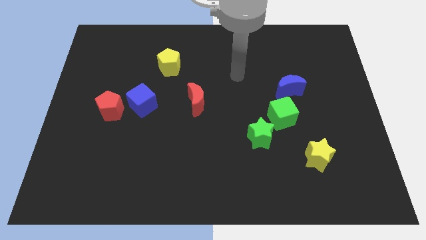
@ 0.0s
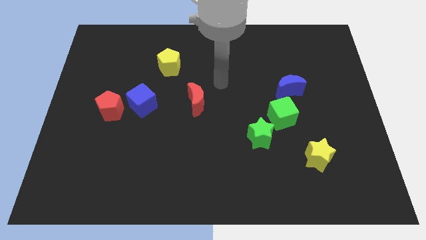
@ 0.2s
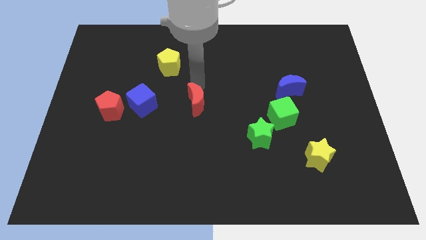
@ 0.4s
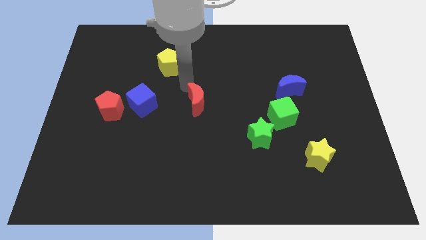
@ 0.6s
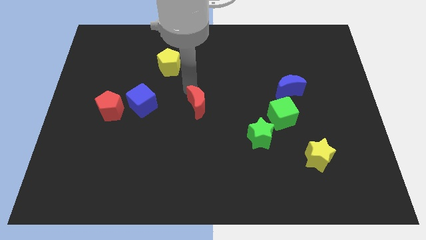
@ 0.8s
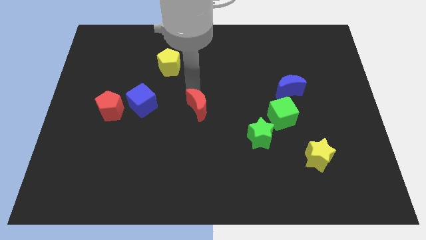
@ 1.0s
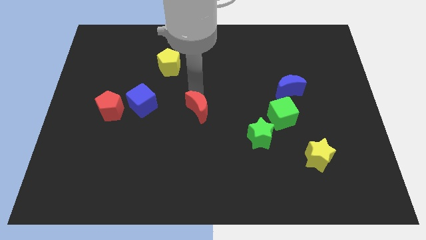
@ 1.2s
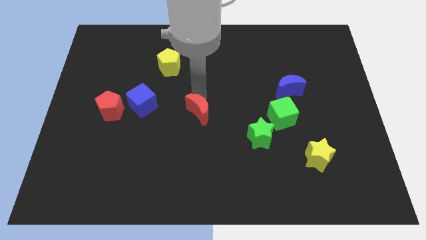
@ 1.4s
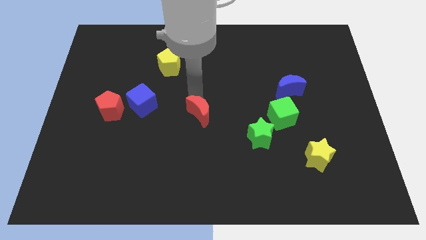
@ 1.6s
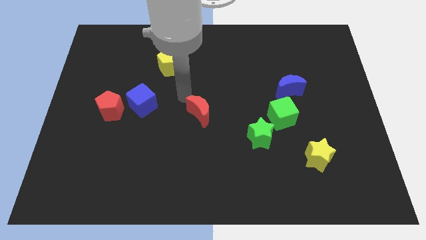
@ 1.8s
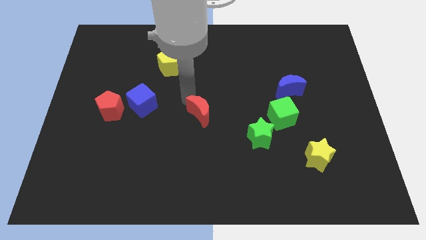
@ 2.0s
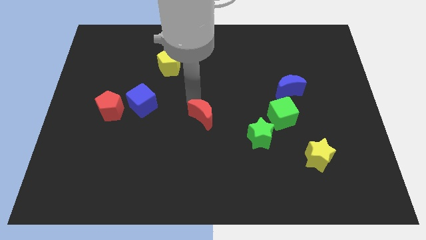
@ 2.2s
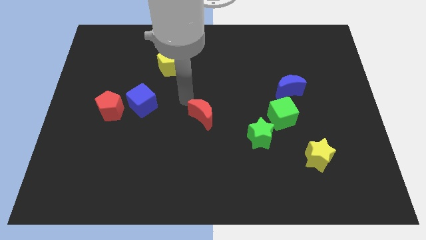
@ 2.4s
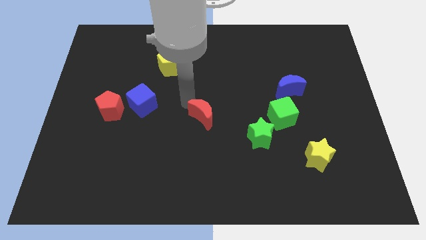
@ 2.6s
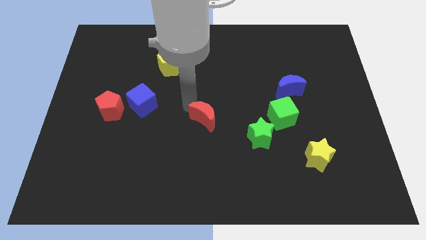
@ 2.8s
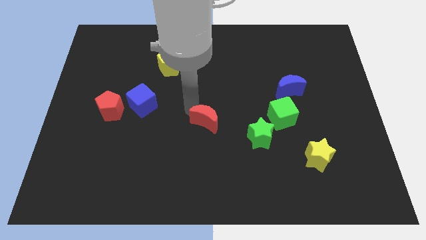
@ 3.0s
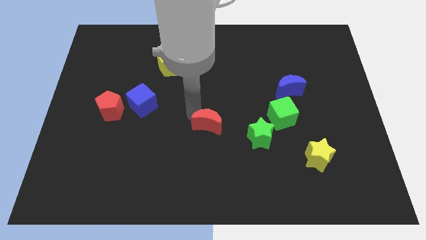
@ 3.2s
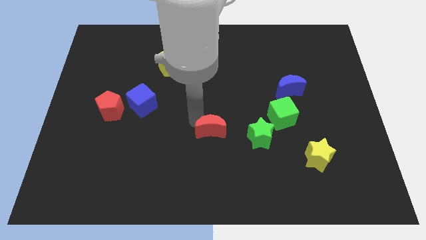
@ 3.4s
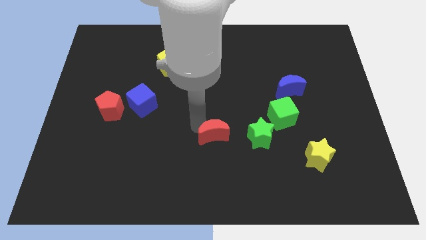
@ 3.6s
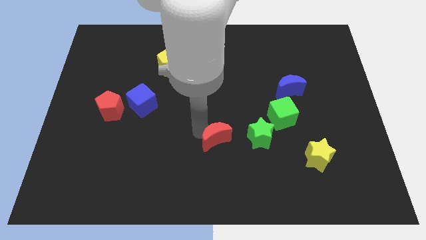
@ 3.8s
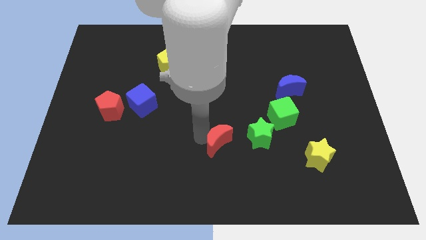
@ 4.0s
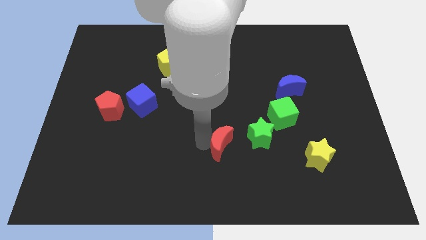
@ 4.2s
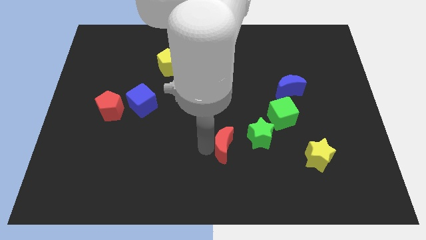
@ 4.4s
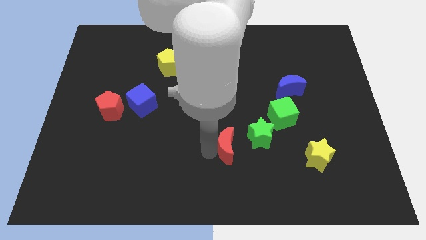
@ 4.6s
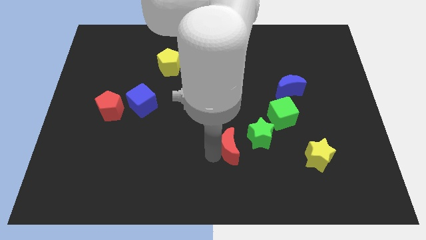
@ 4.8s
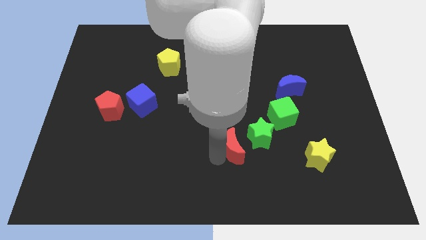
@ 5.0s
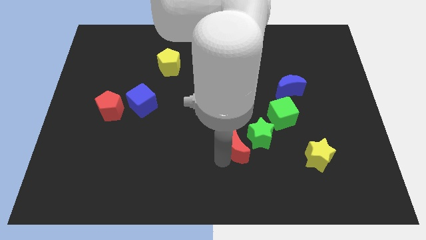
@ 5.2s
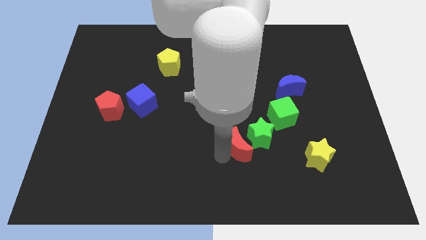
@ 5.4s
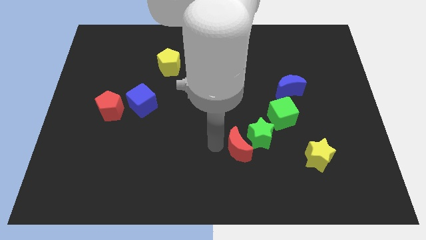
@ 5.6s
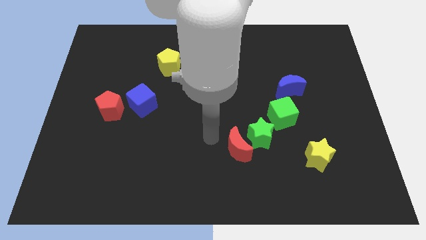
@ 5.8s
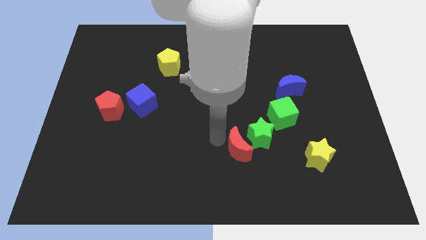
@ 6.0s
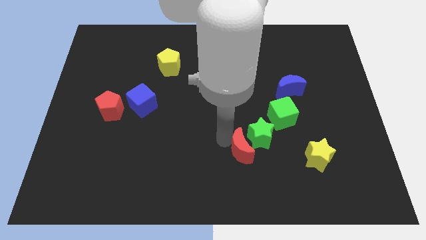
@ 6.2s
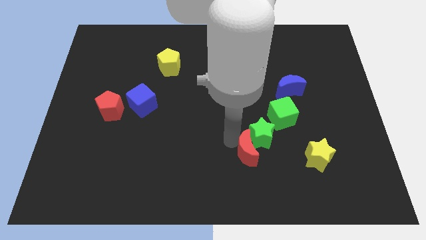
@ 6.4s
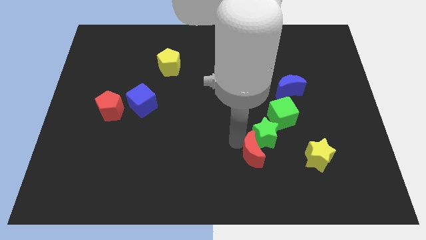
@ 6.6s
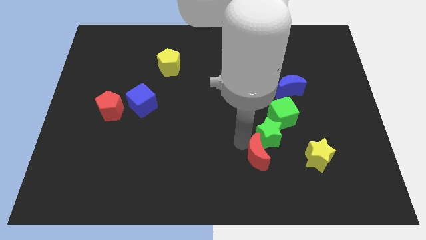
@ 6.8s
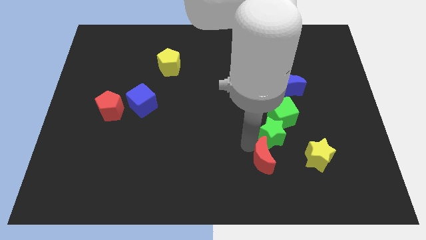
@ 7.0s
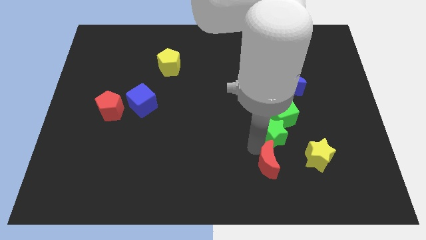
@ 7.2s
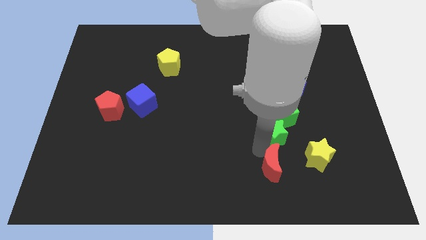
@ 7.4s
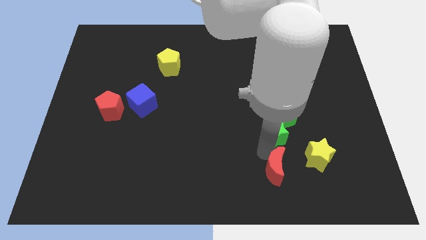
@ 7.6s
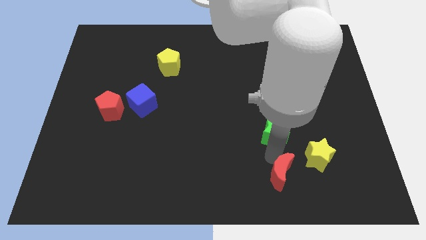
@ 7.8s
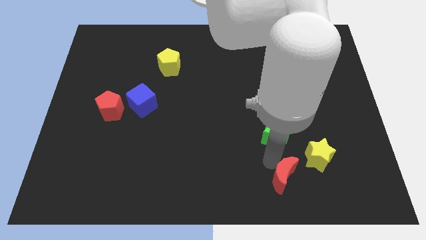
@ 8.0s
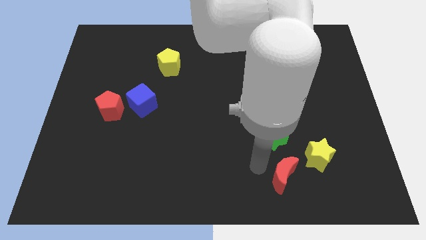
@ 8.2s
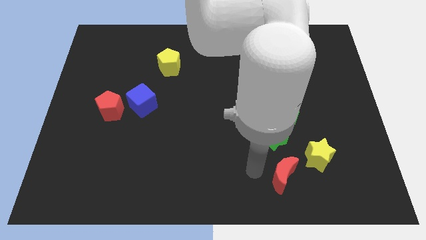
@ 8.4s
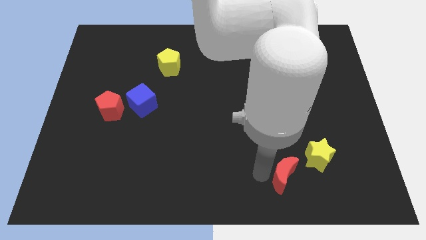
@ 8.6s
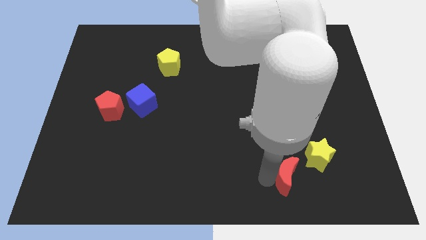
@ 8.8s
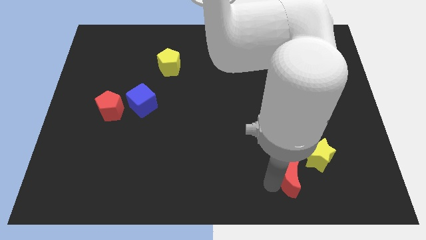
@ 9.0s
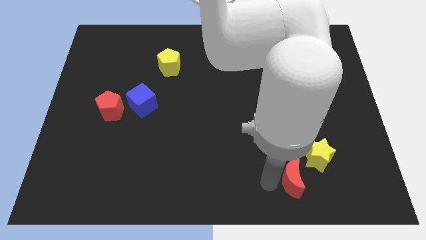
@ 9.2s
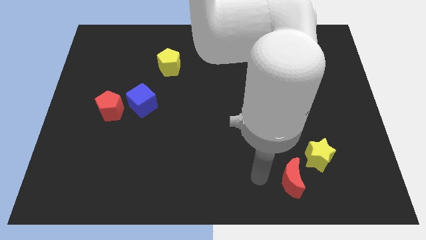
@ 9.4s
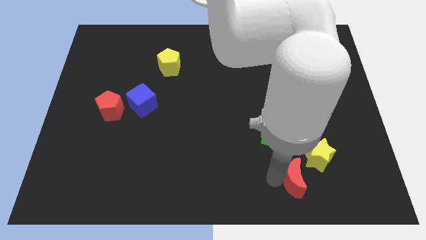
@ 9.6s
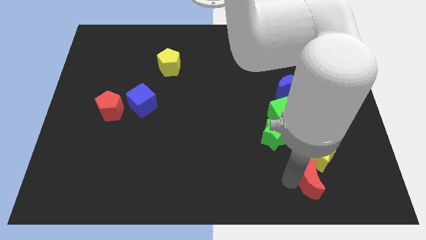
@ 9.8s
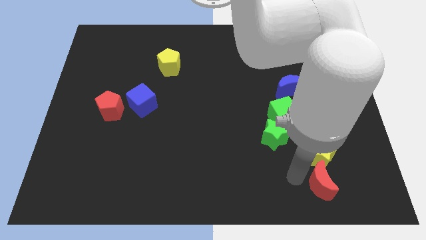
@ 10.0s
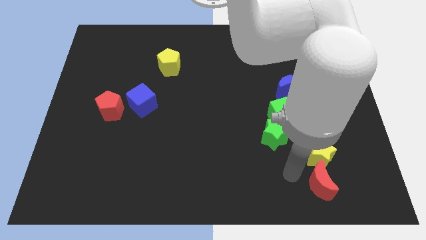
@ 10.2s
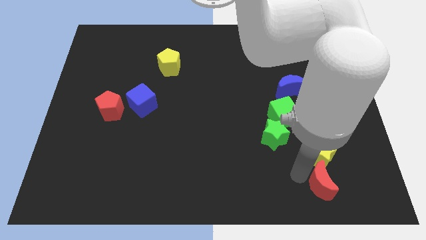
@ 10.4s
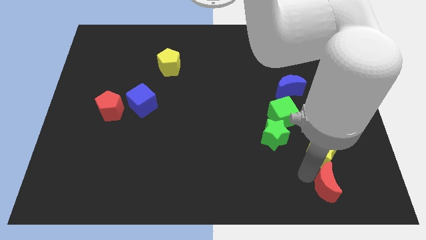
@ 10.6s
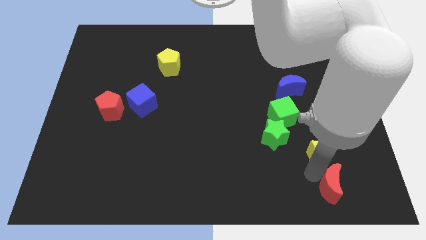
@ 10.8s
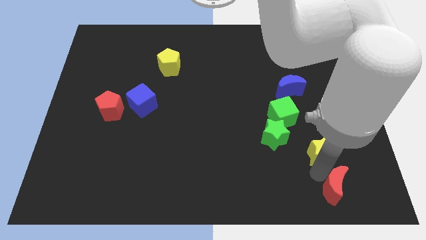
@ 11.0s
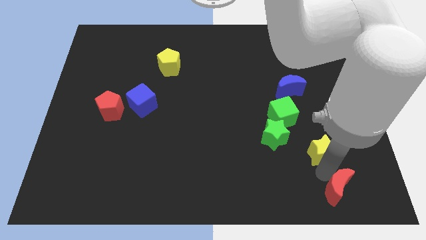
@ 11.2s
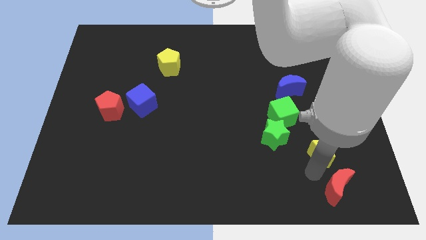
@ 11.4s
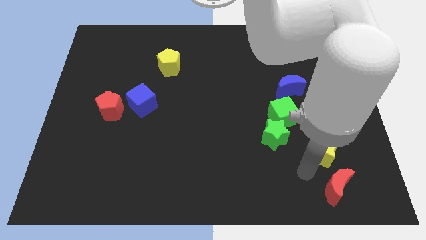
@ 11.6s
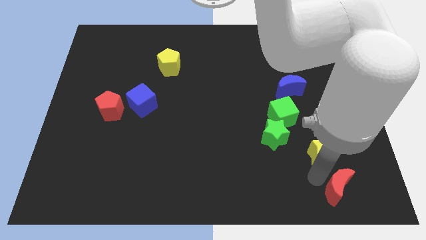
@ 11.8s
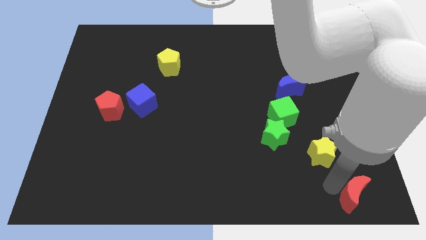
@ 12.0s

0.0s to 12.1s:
put the red moon to the bottom right
